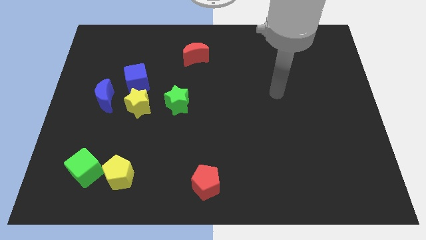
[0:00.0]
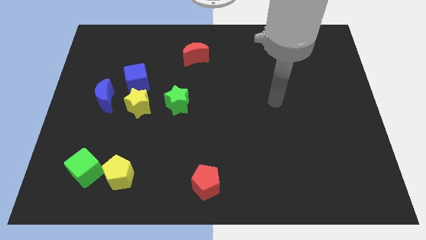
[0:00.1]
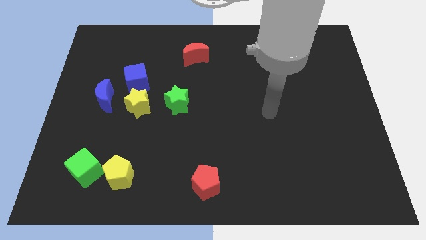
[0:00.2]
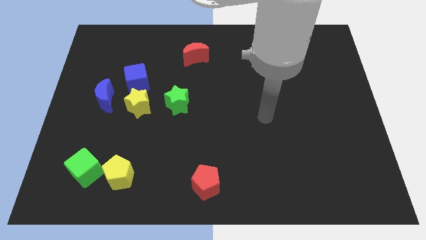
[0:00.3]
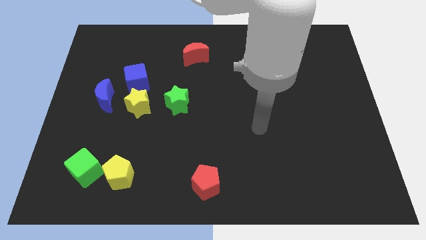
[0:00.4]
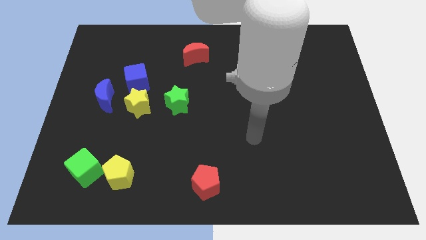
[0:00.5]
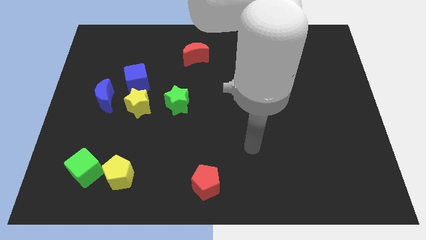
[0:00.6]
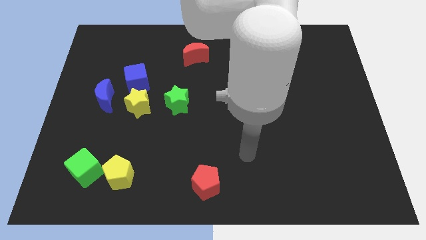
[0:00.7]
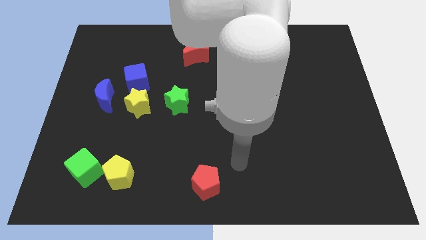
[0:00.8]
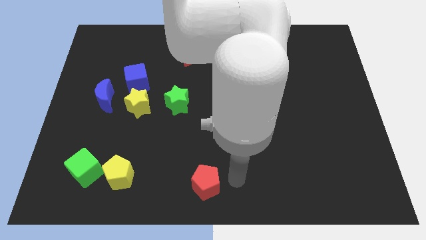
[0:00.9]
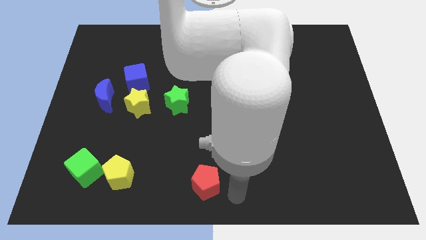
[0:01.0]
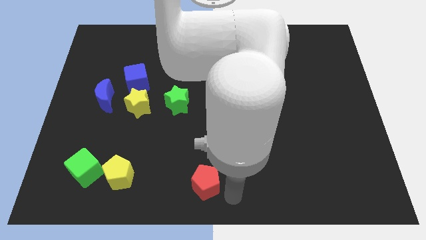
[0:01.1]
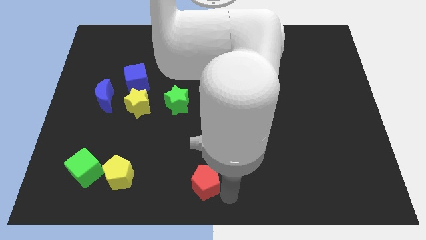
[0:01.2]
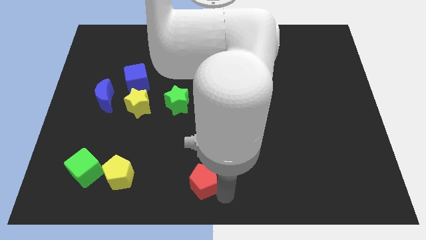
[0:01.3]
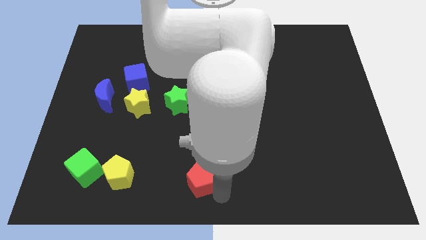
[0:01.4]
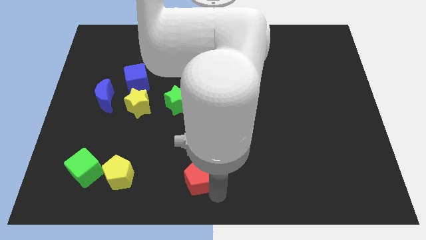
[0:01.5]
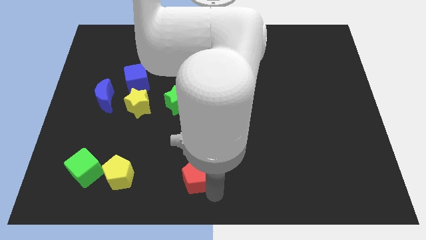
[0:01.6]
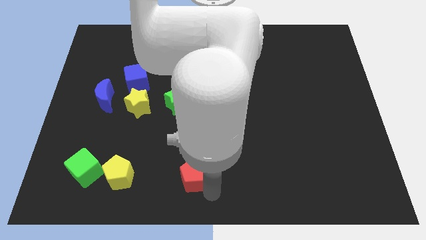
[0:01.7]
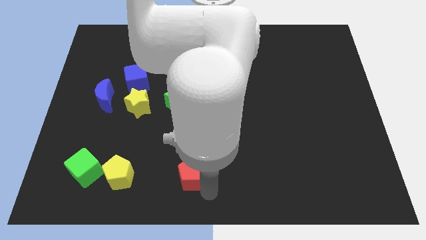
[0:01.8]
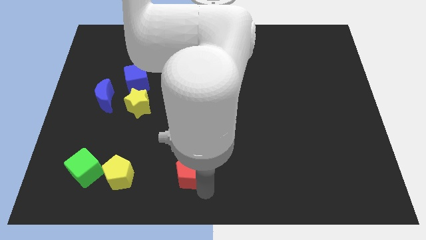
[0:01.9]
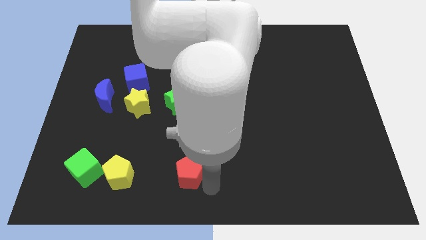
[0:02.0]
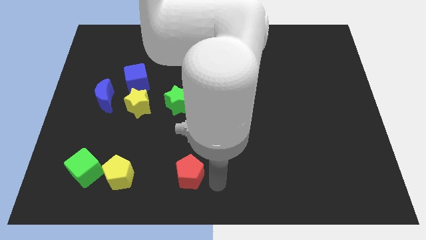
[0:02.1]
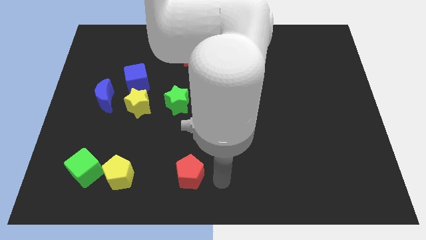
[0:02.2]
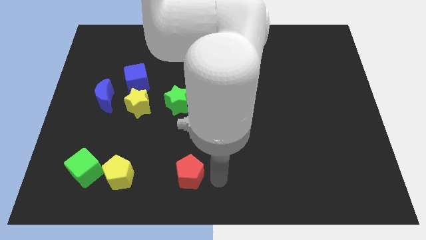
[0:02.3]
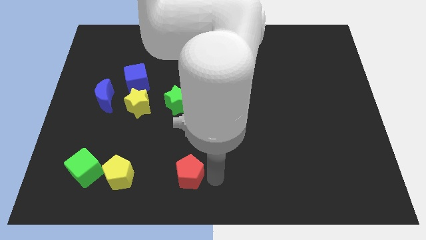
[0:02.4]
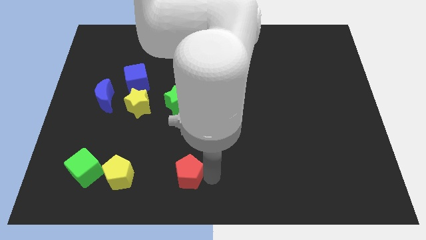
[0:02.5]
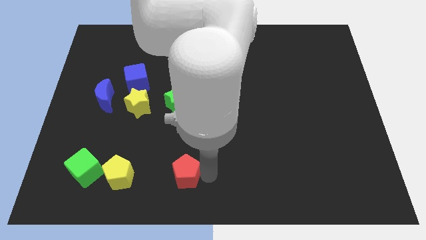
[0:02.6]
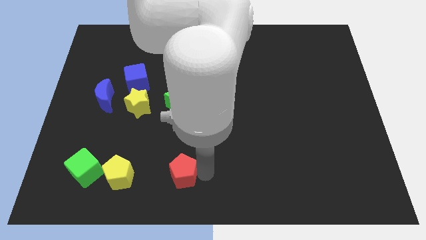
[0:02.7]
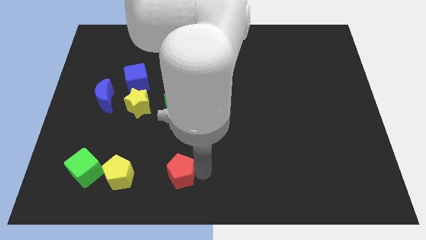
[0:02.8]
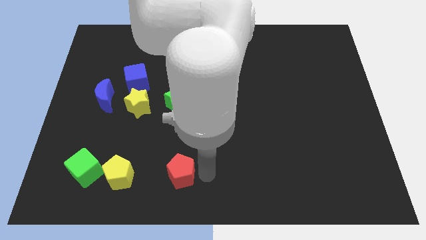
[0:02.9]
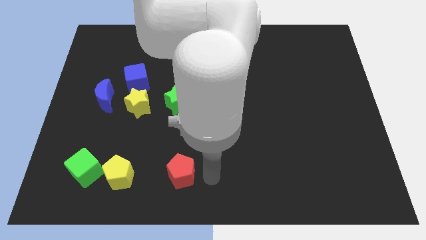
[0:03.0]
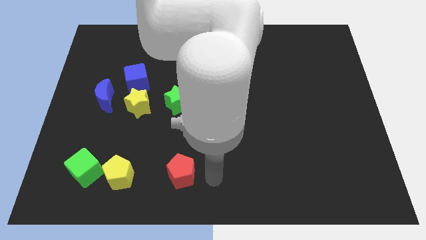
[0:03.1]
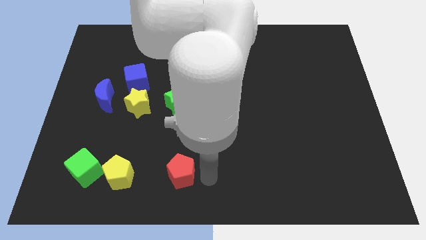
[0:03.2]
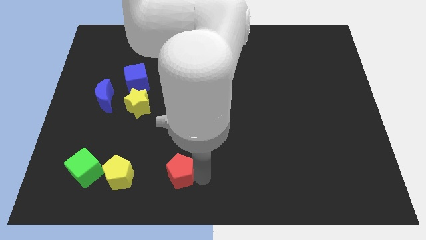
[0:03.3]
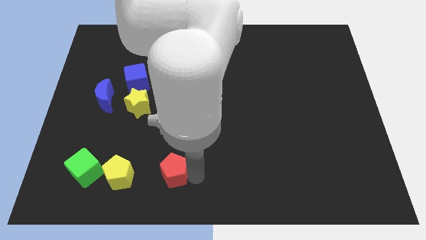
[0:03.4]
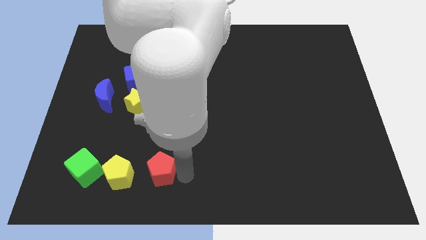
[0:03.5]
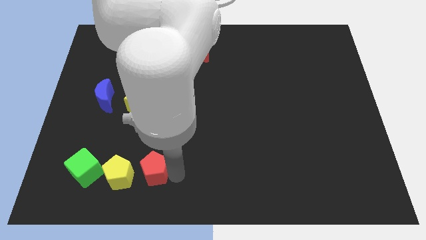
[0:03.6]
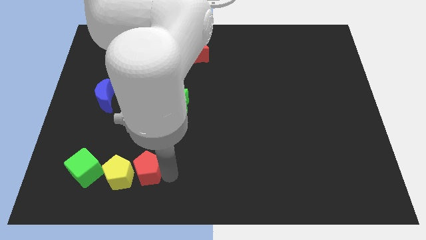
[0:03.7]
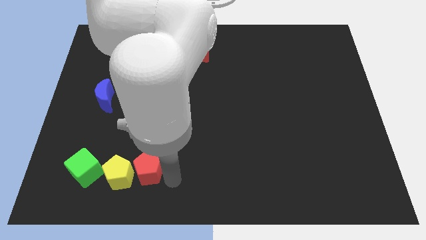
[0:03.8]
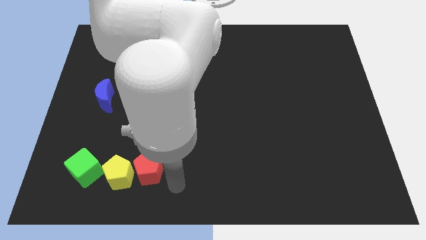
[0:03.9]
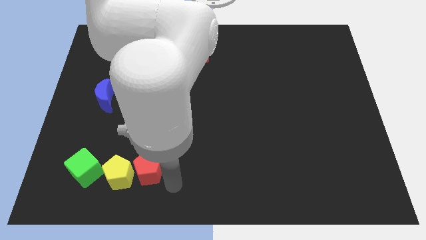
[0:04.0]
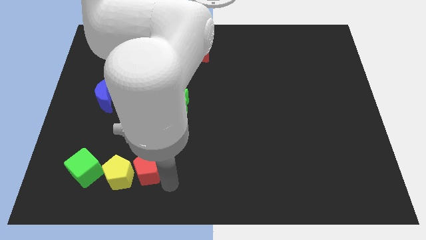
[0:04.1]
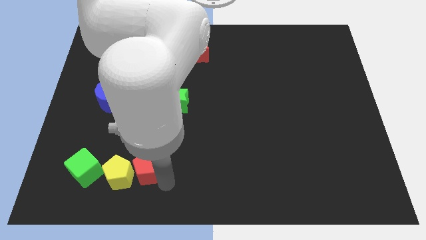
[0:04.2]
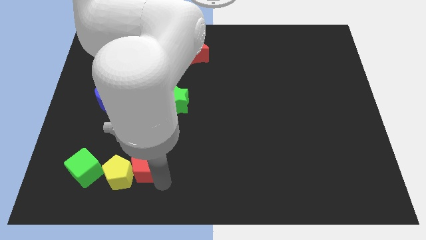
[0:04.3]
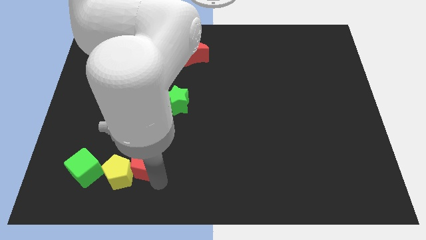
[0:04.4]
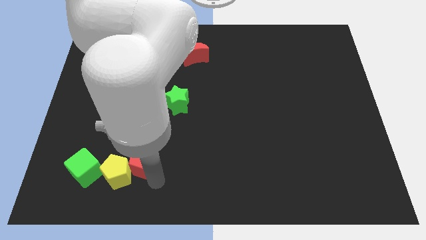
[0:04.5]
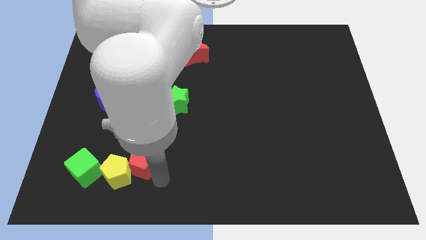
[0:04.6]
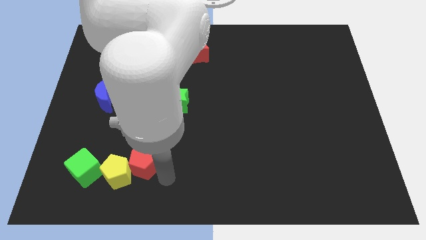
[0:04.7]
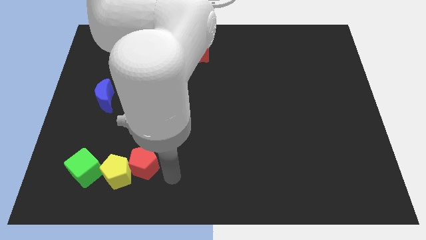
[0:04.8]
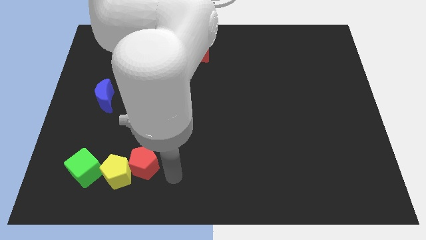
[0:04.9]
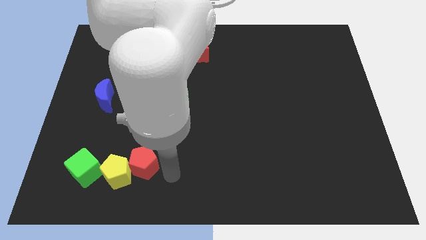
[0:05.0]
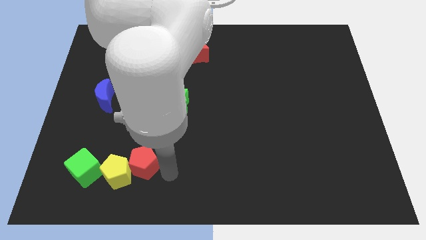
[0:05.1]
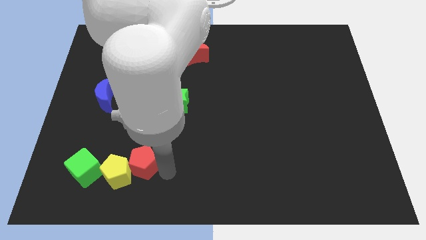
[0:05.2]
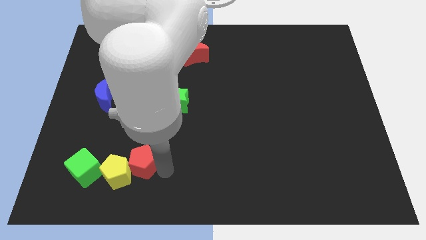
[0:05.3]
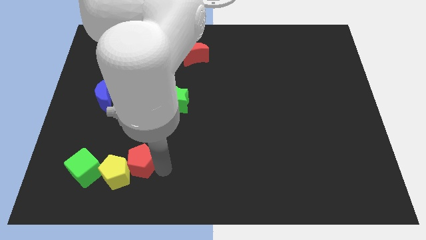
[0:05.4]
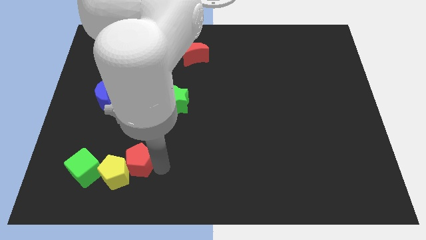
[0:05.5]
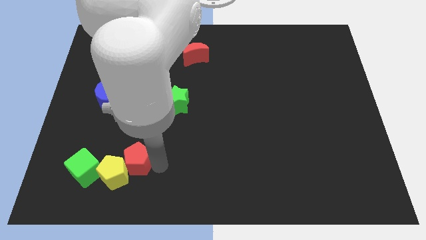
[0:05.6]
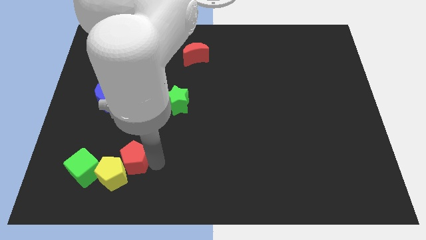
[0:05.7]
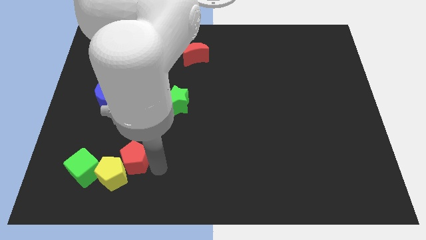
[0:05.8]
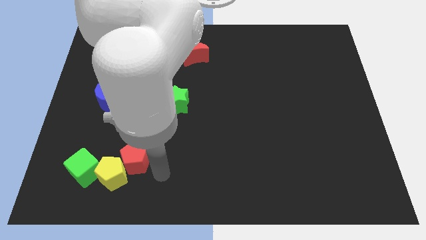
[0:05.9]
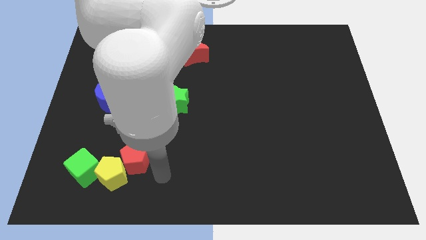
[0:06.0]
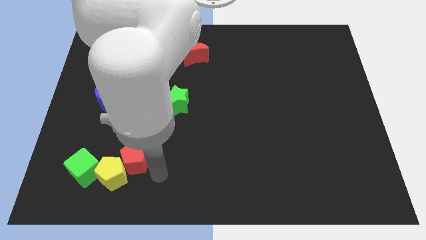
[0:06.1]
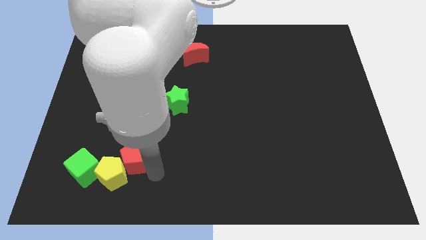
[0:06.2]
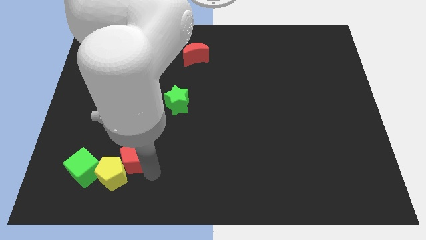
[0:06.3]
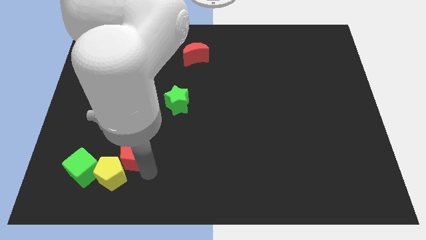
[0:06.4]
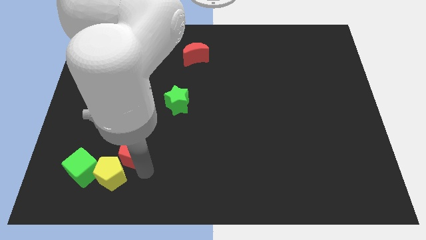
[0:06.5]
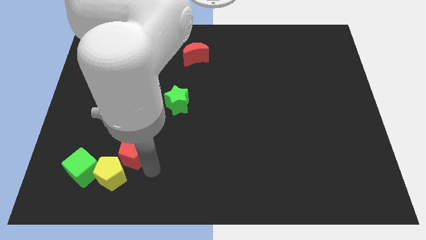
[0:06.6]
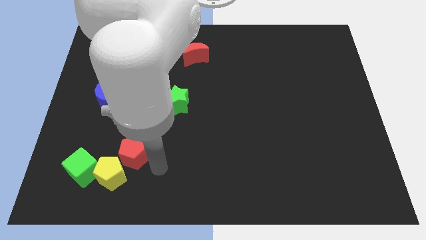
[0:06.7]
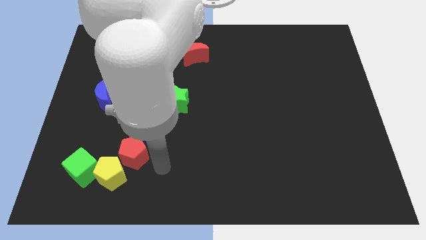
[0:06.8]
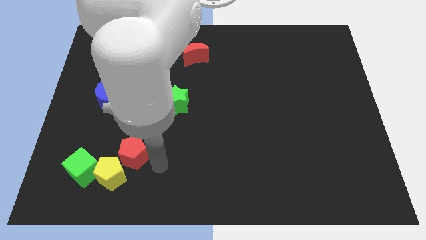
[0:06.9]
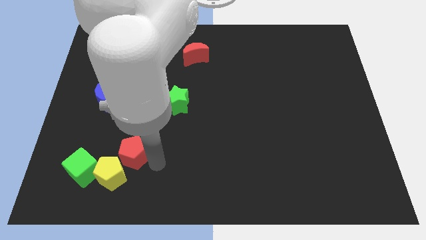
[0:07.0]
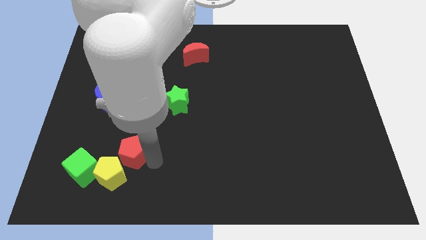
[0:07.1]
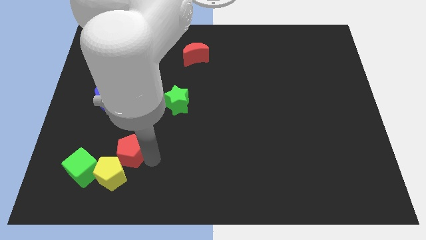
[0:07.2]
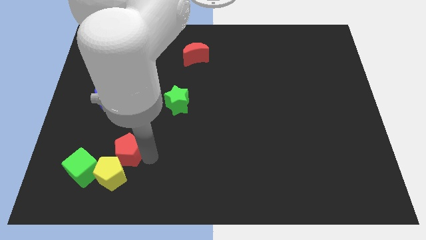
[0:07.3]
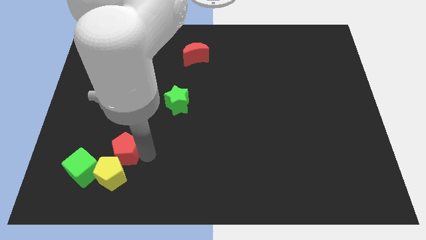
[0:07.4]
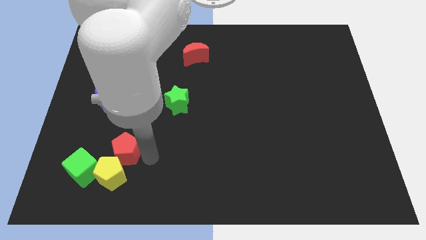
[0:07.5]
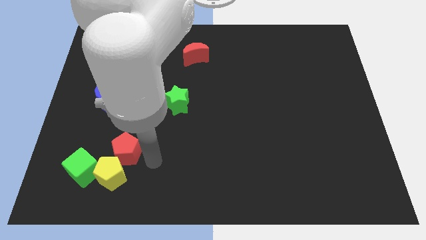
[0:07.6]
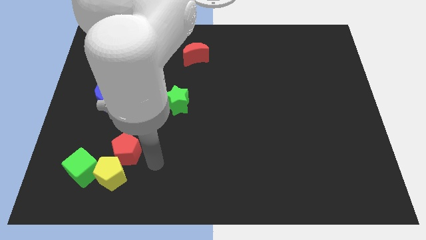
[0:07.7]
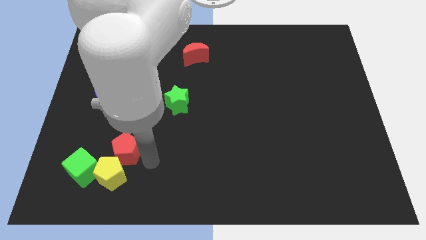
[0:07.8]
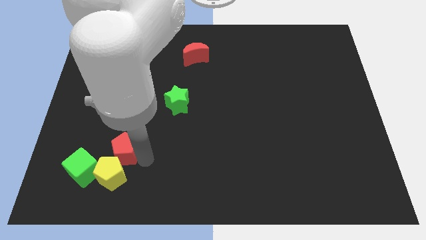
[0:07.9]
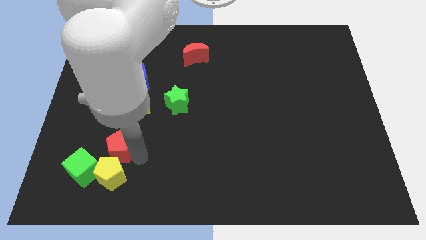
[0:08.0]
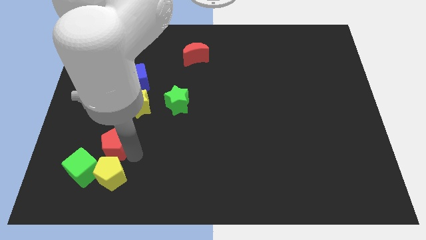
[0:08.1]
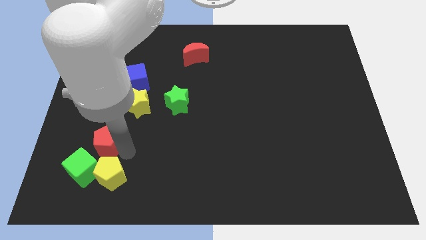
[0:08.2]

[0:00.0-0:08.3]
slide the red pentagon to the bottom of the blue moon
